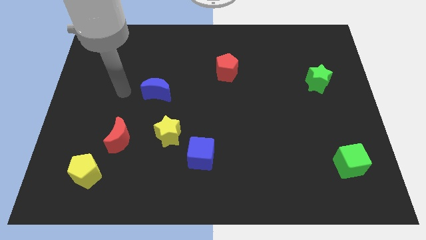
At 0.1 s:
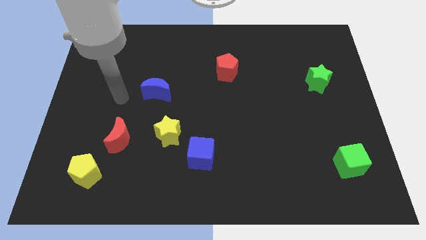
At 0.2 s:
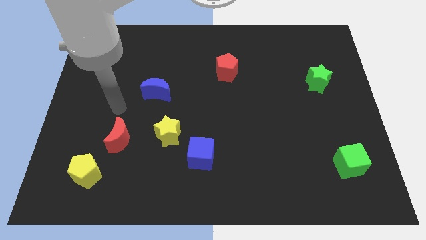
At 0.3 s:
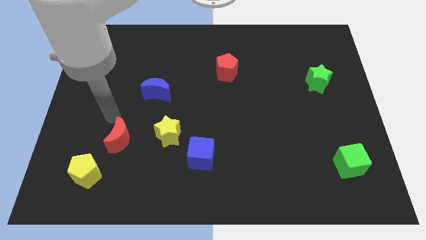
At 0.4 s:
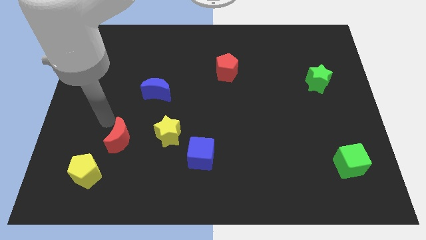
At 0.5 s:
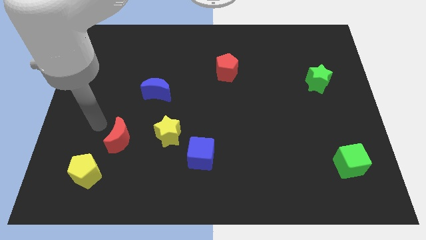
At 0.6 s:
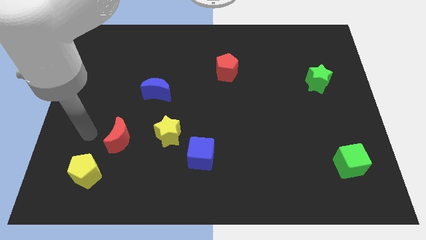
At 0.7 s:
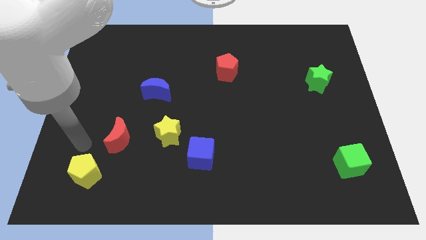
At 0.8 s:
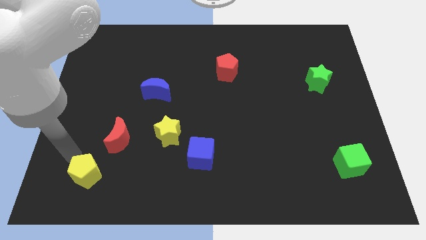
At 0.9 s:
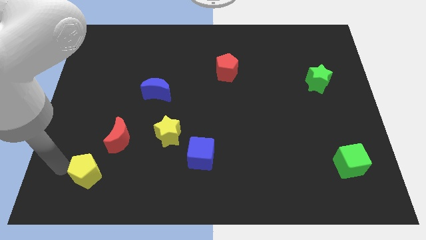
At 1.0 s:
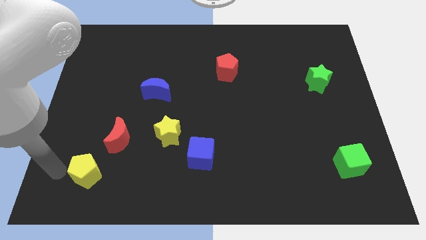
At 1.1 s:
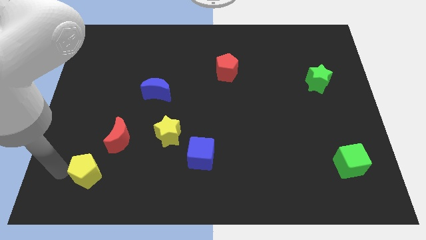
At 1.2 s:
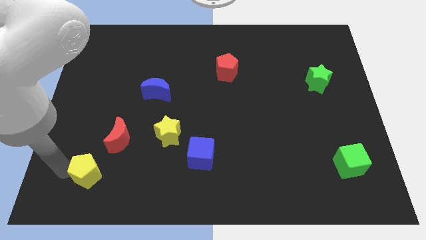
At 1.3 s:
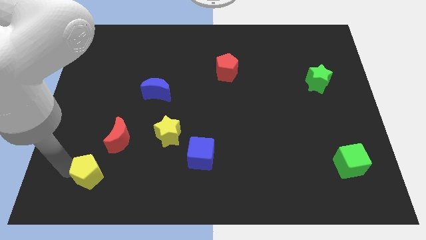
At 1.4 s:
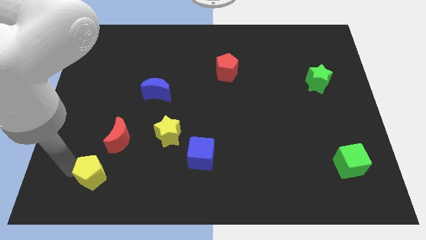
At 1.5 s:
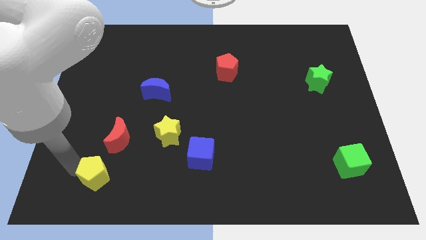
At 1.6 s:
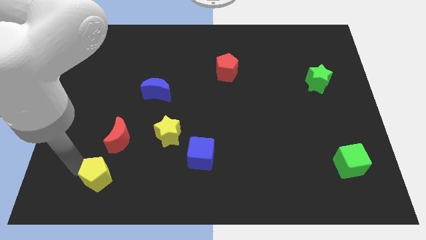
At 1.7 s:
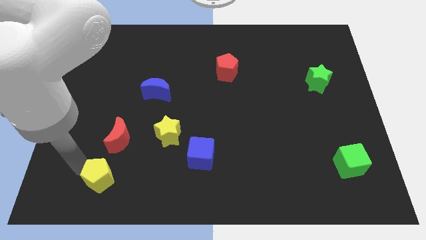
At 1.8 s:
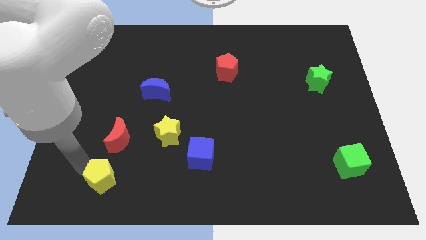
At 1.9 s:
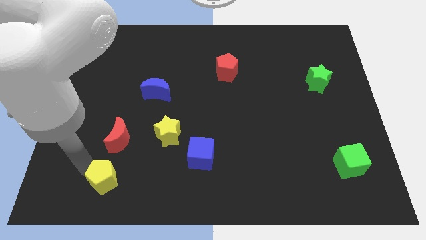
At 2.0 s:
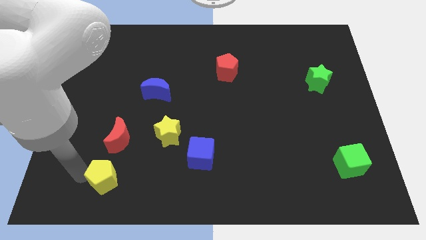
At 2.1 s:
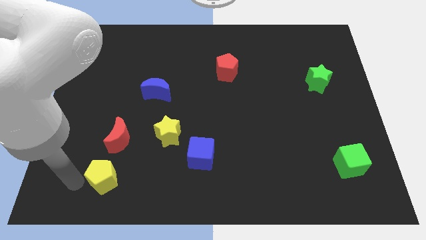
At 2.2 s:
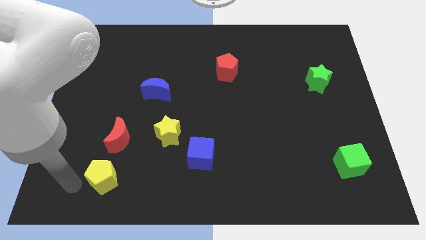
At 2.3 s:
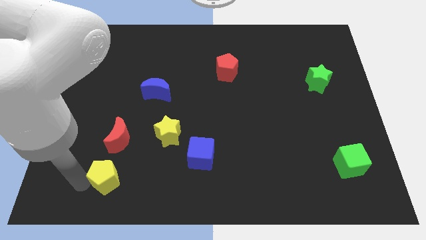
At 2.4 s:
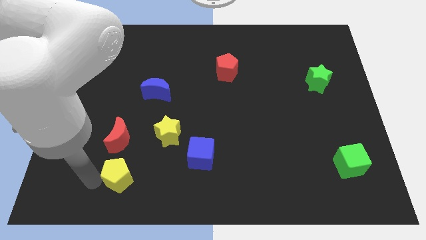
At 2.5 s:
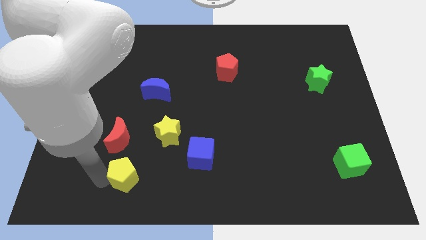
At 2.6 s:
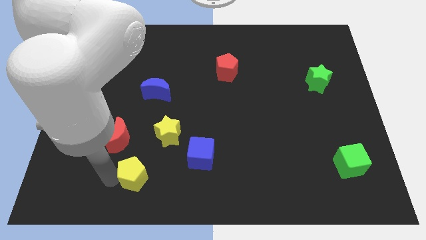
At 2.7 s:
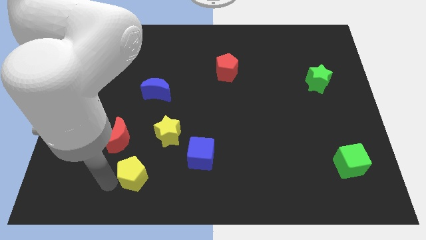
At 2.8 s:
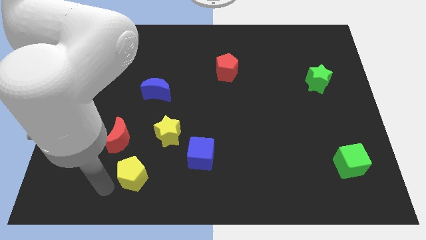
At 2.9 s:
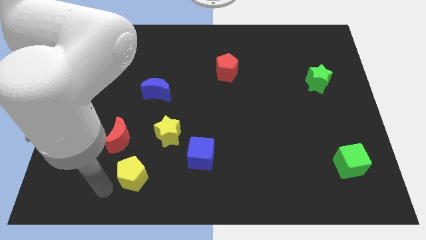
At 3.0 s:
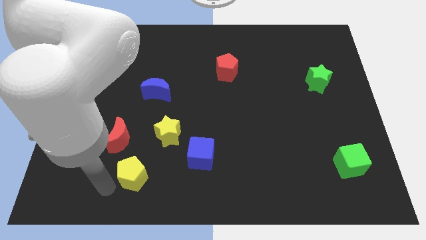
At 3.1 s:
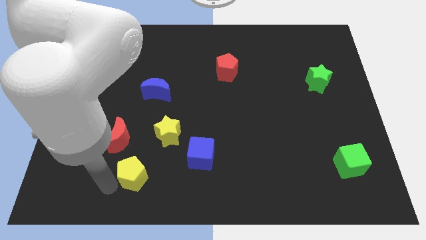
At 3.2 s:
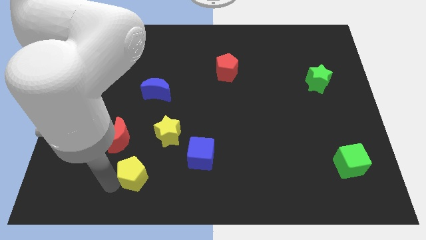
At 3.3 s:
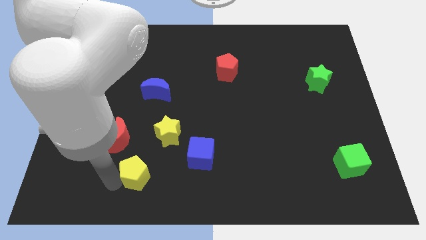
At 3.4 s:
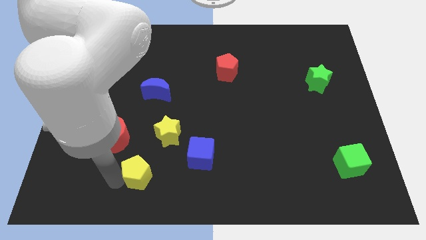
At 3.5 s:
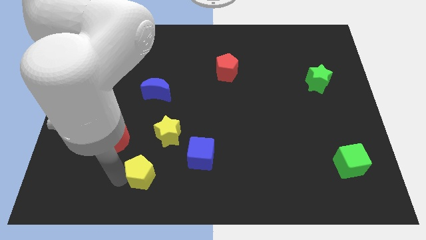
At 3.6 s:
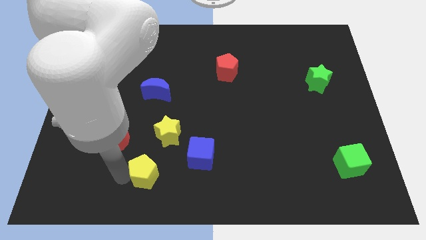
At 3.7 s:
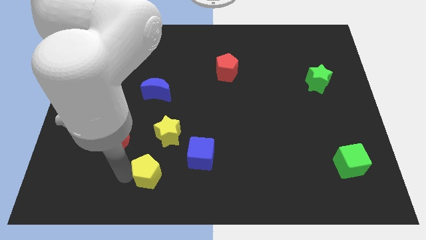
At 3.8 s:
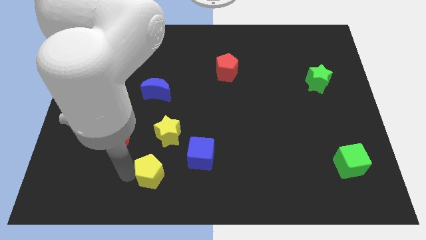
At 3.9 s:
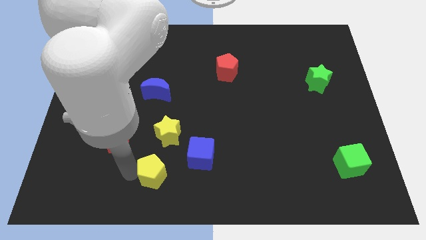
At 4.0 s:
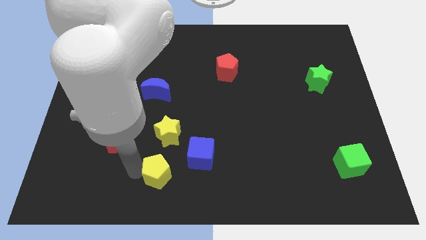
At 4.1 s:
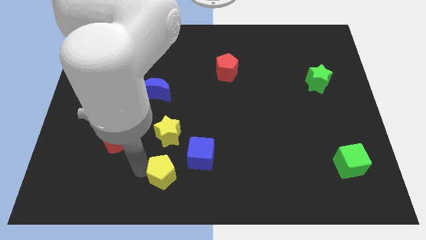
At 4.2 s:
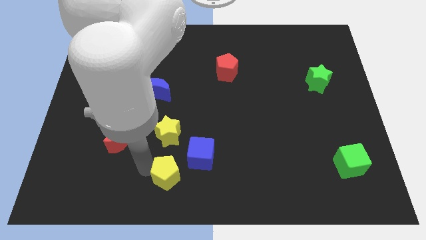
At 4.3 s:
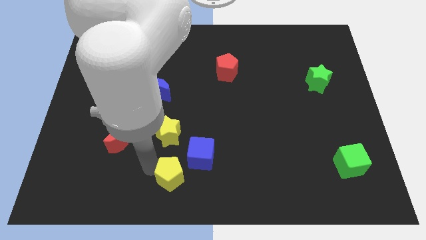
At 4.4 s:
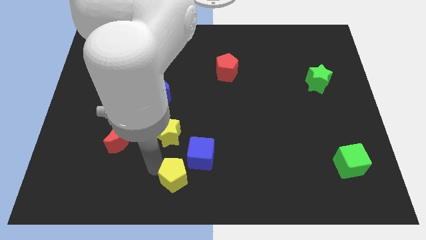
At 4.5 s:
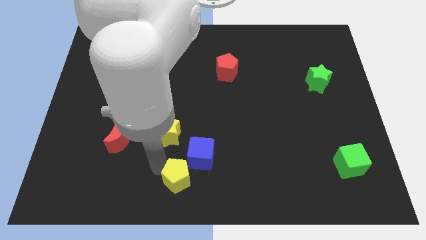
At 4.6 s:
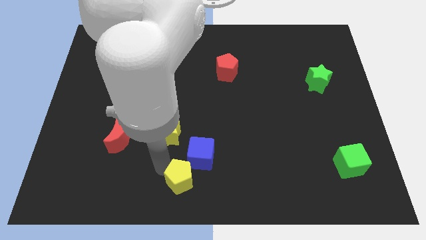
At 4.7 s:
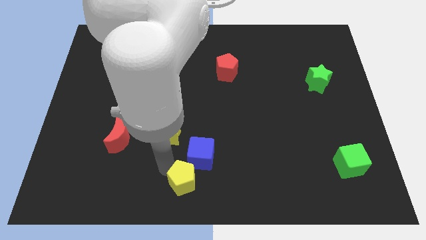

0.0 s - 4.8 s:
push the yellow pentagon right

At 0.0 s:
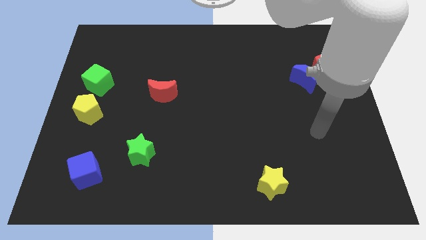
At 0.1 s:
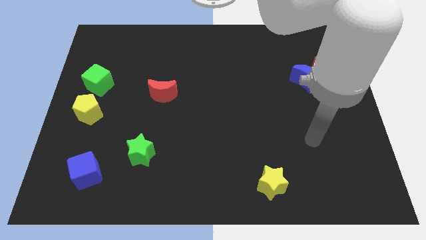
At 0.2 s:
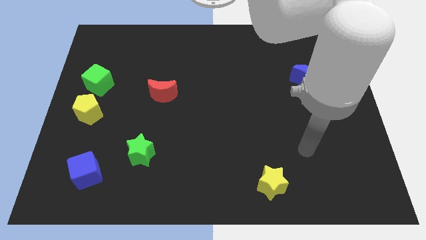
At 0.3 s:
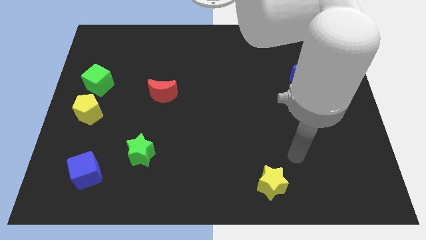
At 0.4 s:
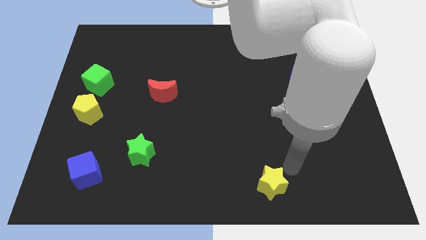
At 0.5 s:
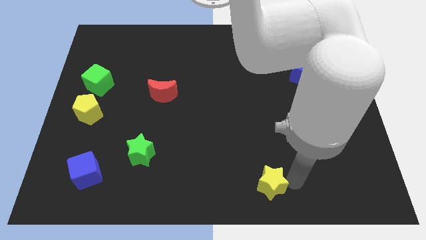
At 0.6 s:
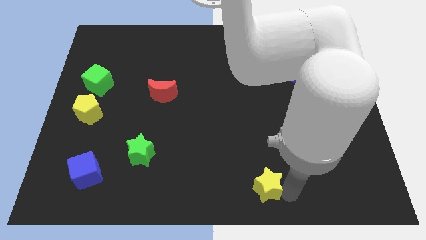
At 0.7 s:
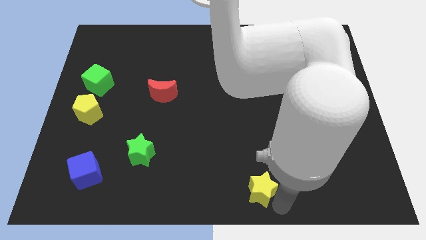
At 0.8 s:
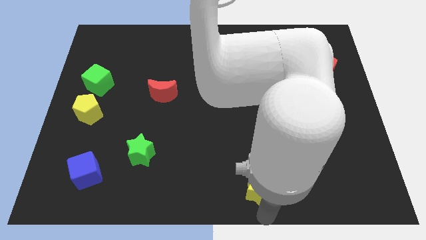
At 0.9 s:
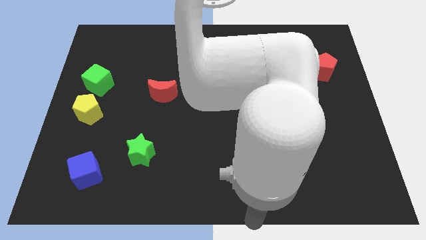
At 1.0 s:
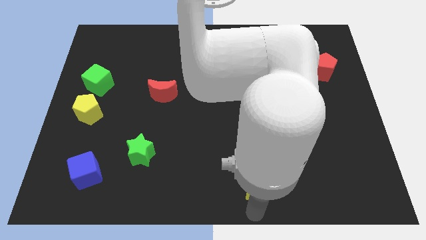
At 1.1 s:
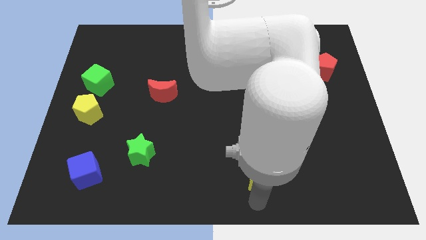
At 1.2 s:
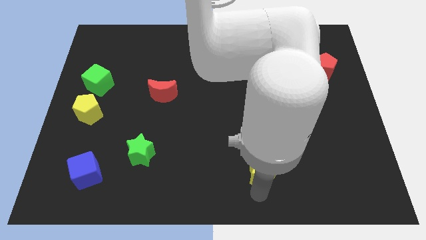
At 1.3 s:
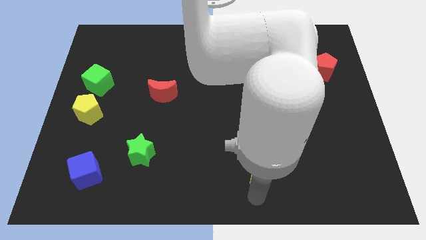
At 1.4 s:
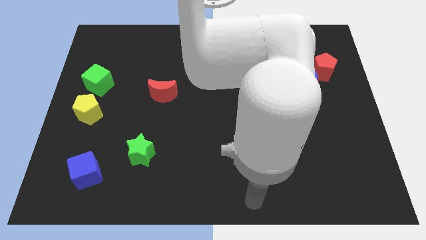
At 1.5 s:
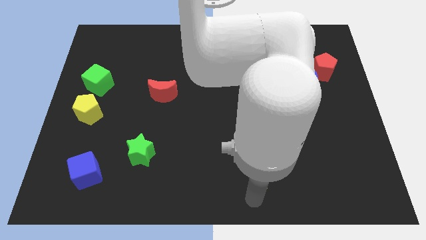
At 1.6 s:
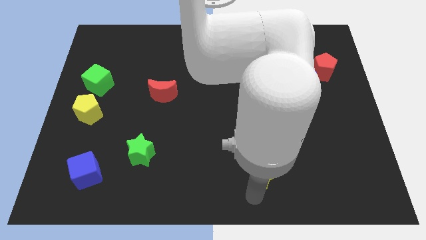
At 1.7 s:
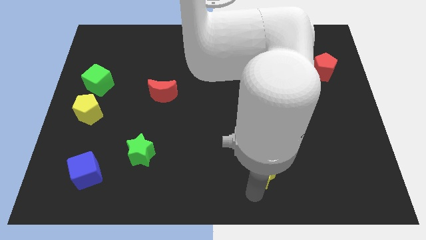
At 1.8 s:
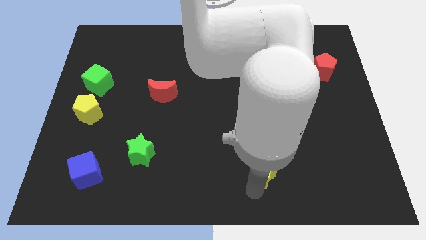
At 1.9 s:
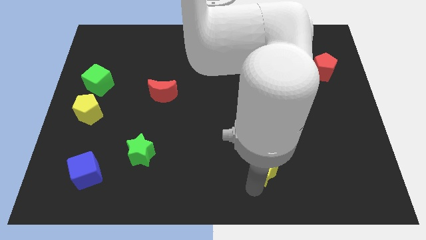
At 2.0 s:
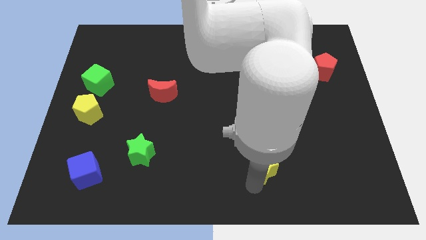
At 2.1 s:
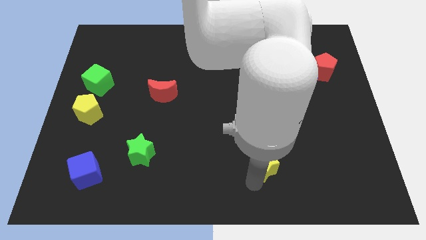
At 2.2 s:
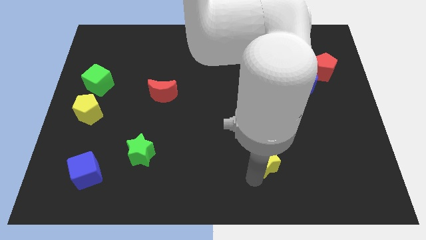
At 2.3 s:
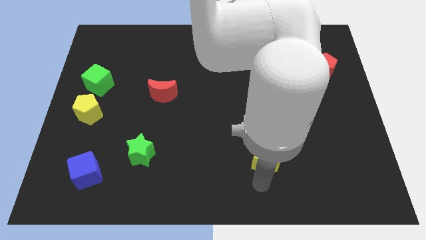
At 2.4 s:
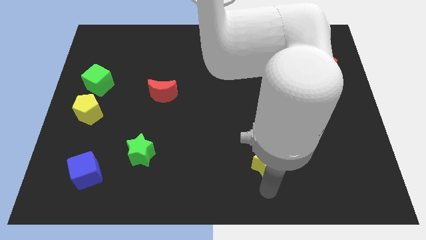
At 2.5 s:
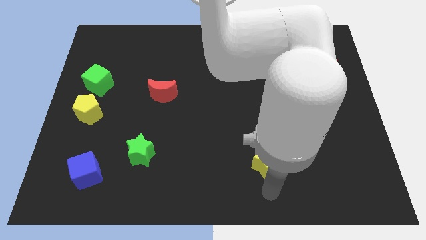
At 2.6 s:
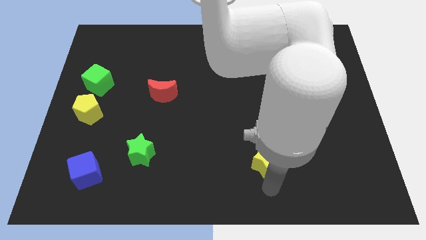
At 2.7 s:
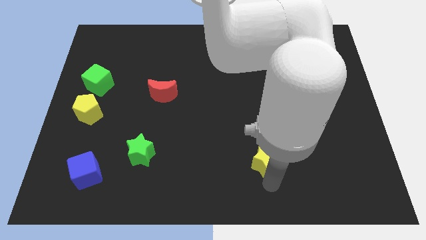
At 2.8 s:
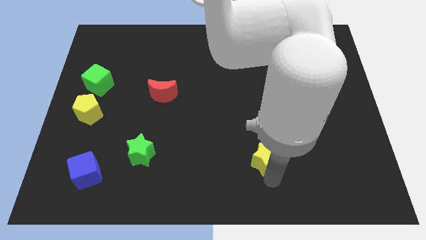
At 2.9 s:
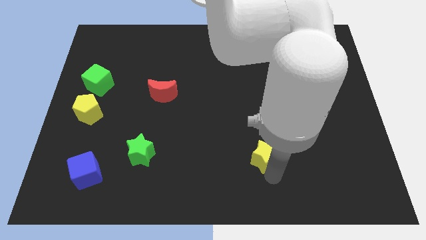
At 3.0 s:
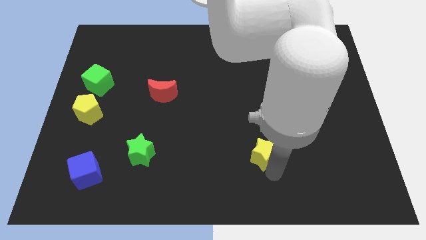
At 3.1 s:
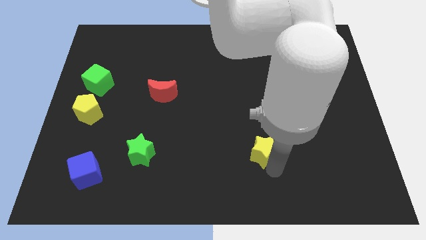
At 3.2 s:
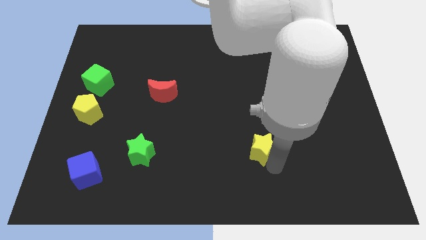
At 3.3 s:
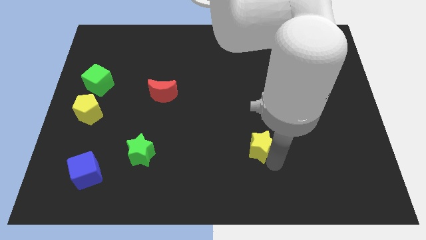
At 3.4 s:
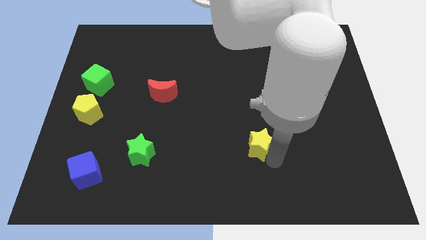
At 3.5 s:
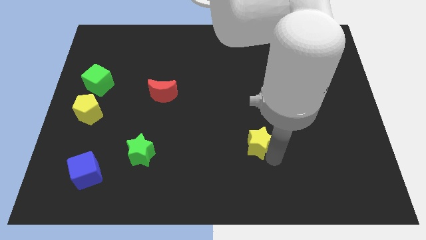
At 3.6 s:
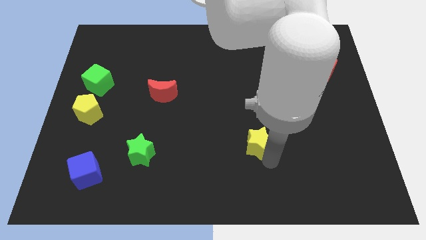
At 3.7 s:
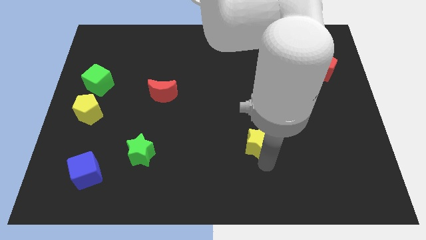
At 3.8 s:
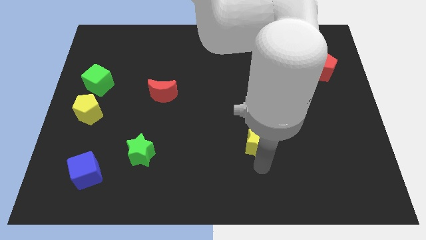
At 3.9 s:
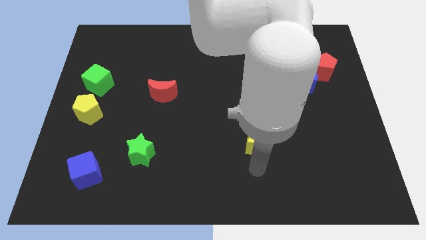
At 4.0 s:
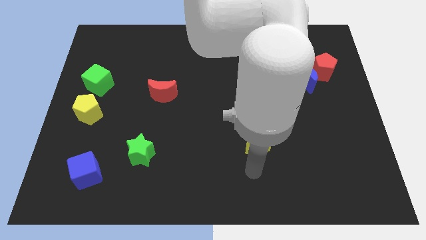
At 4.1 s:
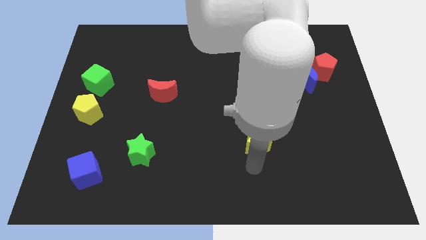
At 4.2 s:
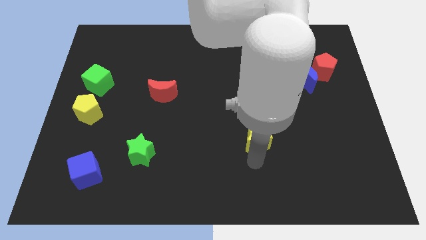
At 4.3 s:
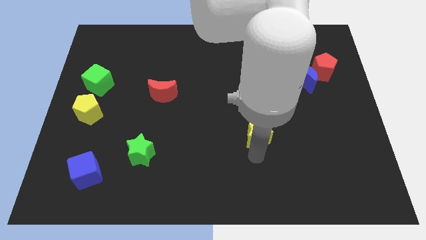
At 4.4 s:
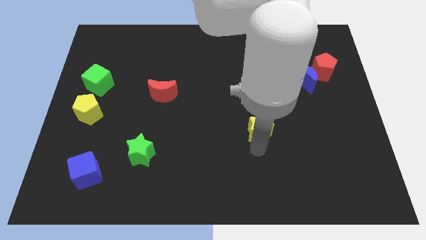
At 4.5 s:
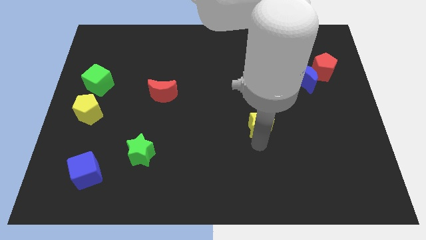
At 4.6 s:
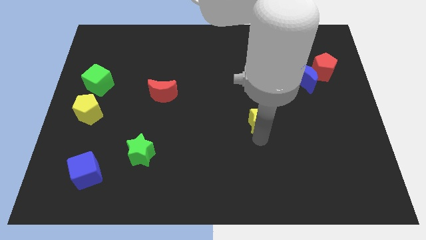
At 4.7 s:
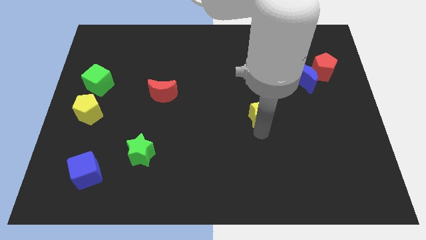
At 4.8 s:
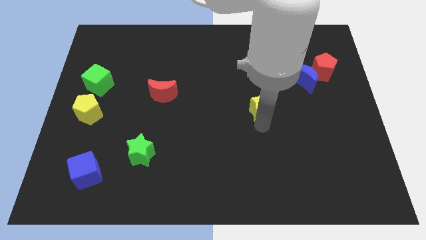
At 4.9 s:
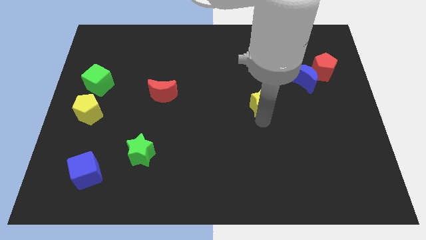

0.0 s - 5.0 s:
push the yellow star up
